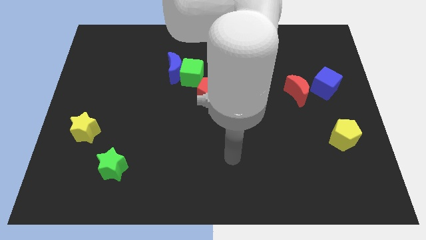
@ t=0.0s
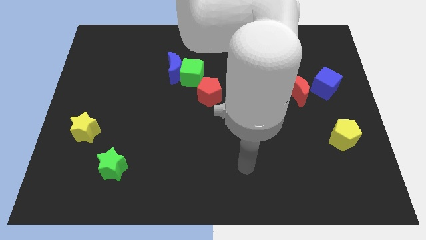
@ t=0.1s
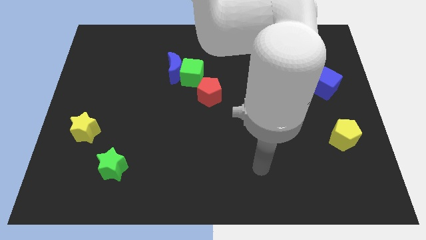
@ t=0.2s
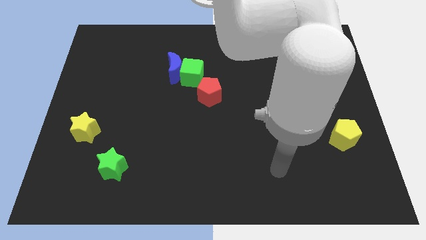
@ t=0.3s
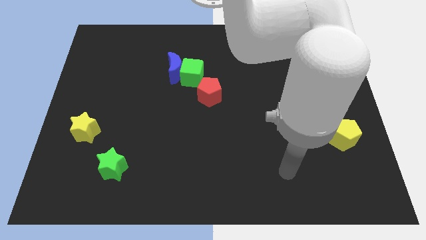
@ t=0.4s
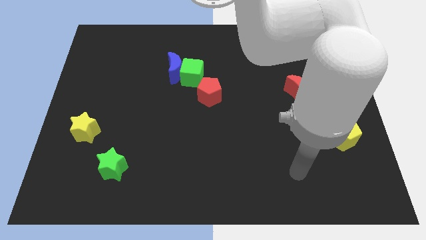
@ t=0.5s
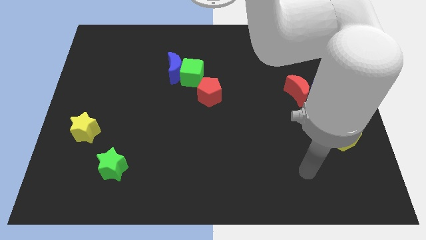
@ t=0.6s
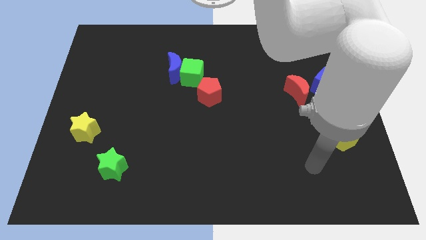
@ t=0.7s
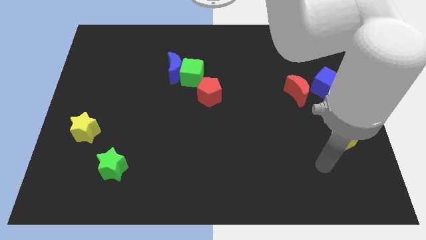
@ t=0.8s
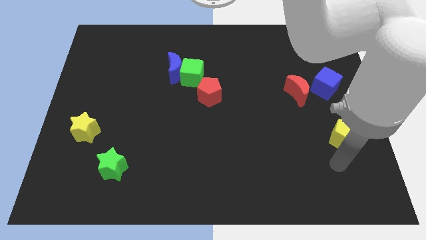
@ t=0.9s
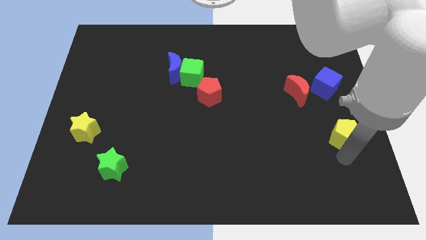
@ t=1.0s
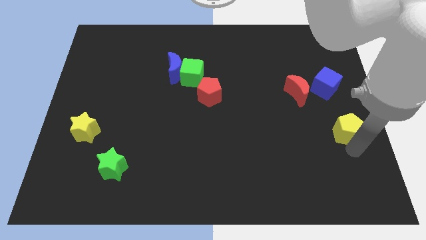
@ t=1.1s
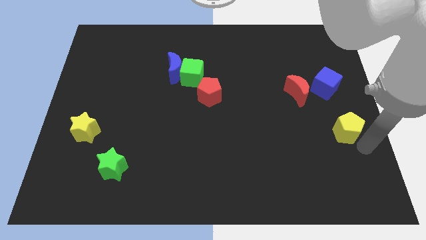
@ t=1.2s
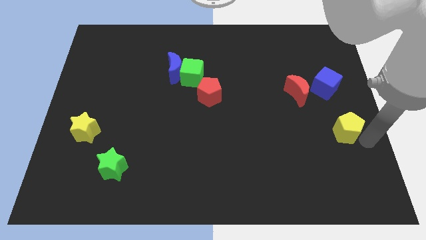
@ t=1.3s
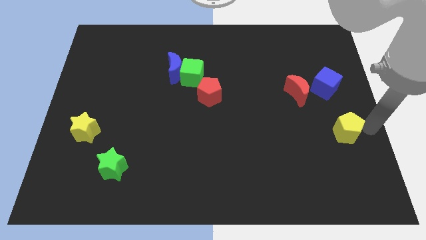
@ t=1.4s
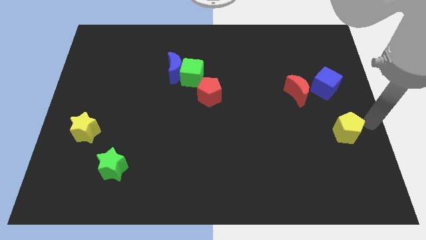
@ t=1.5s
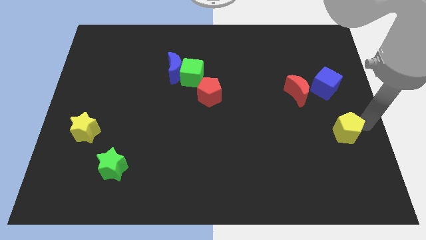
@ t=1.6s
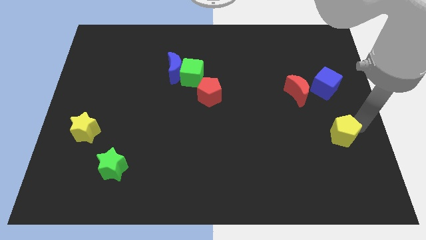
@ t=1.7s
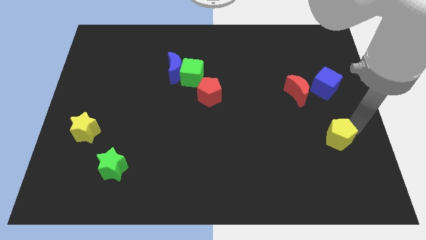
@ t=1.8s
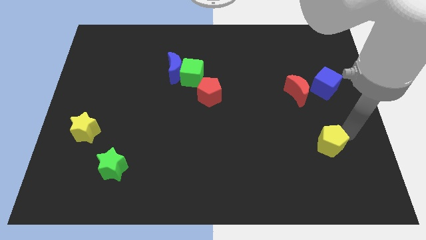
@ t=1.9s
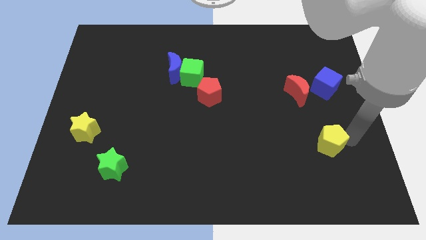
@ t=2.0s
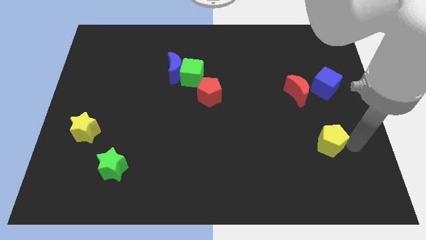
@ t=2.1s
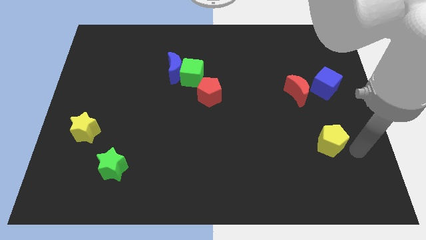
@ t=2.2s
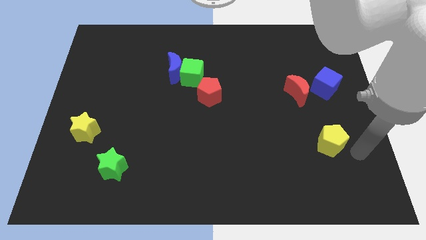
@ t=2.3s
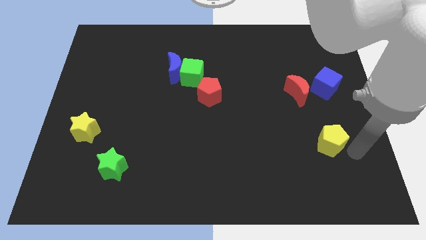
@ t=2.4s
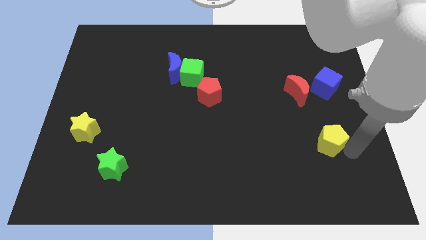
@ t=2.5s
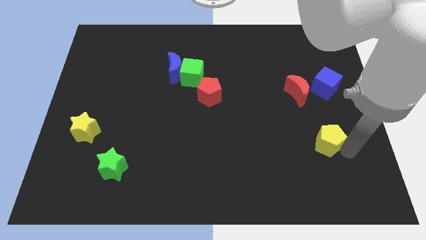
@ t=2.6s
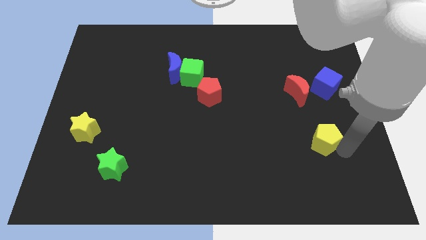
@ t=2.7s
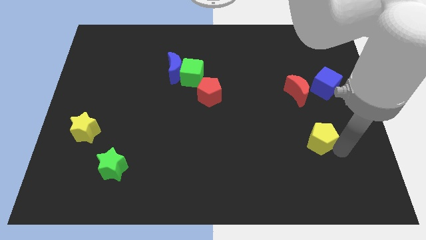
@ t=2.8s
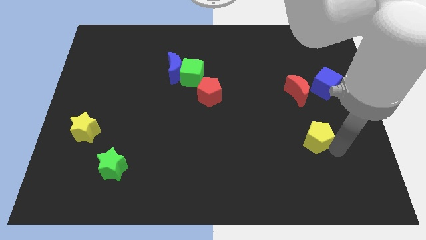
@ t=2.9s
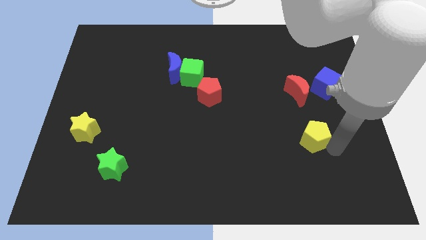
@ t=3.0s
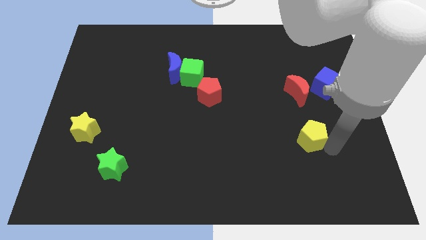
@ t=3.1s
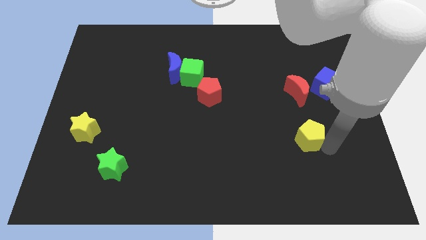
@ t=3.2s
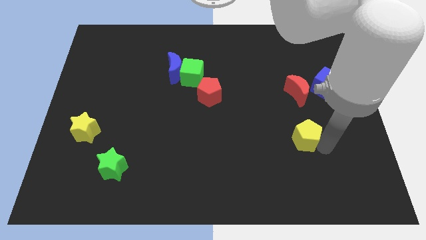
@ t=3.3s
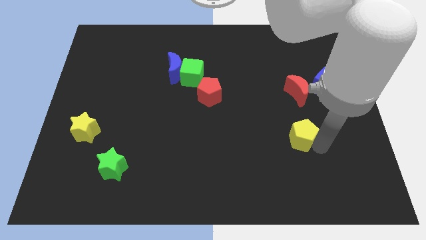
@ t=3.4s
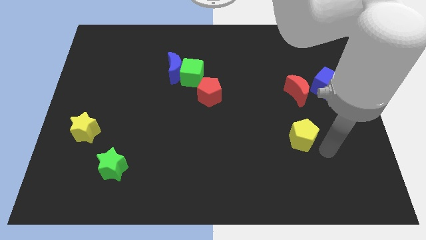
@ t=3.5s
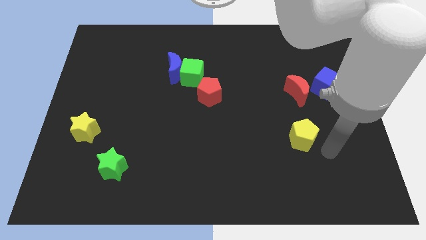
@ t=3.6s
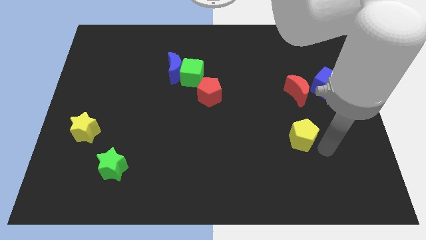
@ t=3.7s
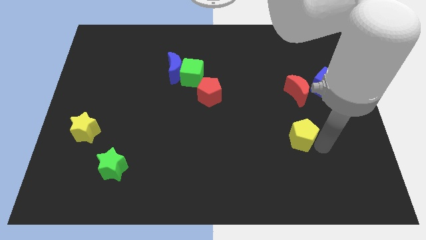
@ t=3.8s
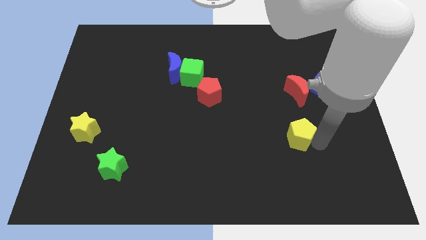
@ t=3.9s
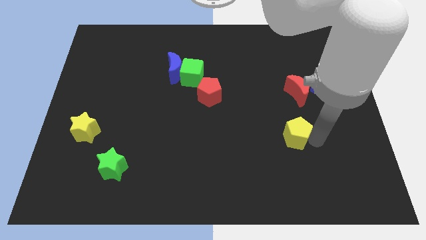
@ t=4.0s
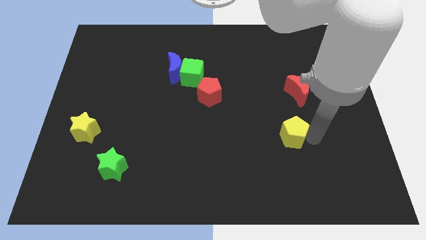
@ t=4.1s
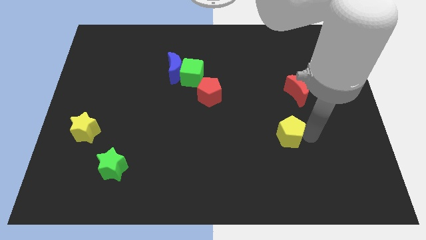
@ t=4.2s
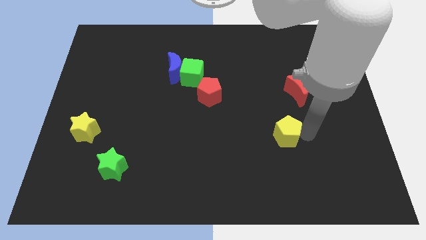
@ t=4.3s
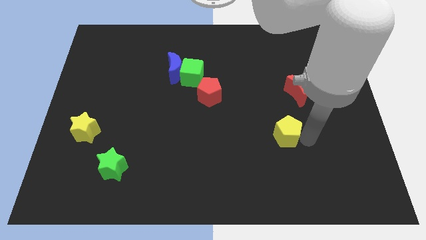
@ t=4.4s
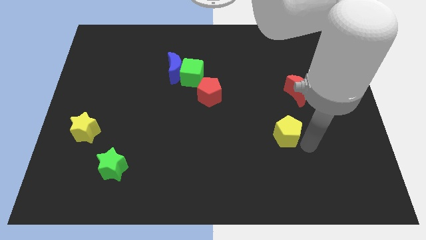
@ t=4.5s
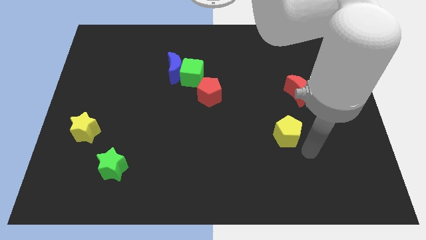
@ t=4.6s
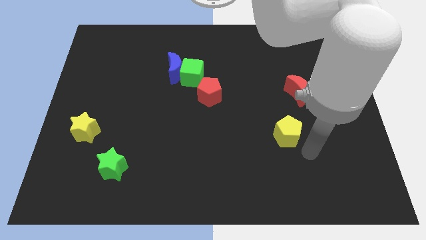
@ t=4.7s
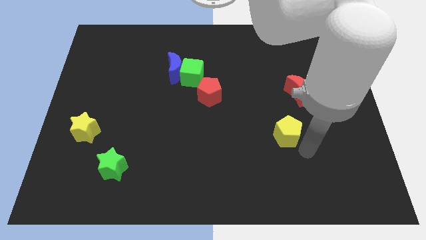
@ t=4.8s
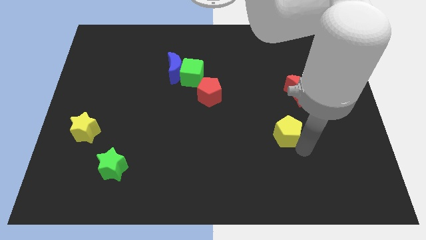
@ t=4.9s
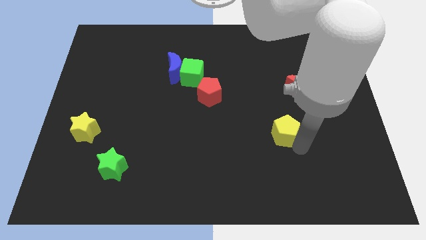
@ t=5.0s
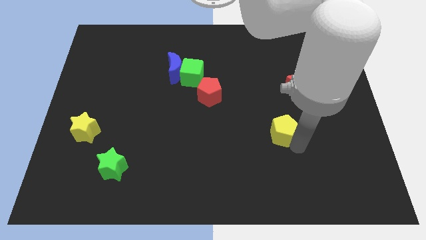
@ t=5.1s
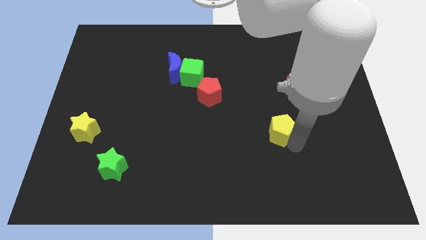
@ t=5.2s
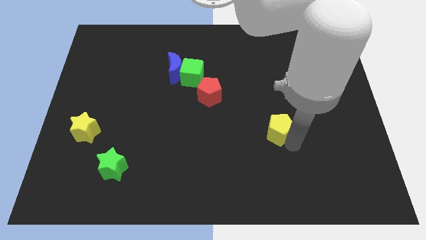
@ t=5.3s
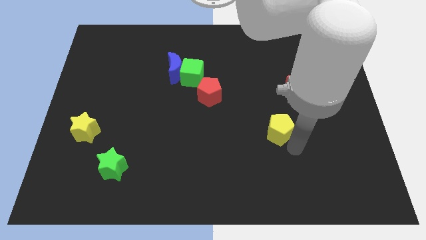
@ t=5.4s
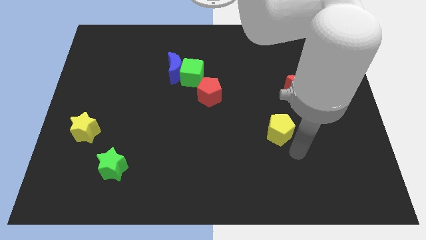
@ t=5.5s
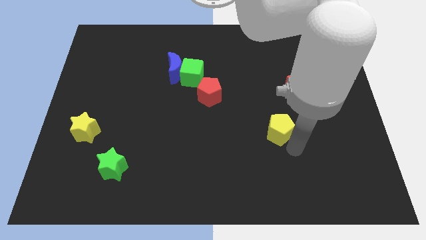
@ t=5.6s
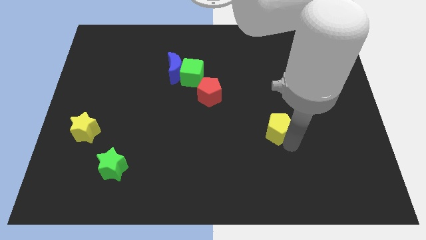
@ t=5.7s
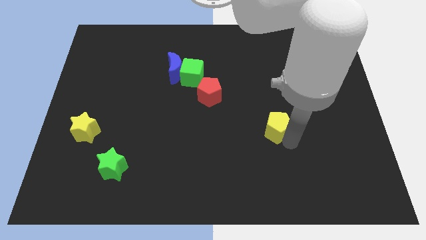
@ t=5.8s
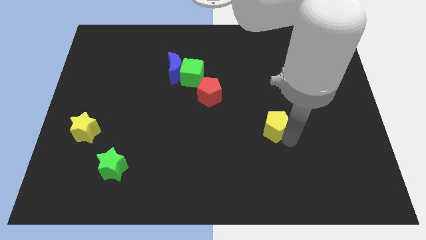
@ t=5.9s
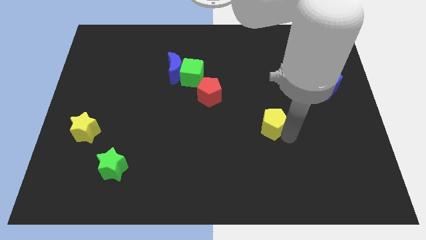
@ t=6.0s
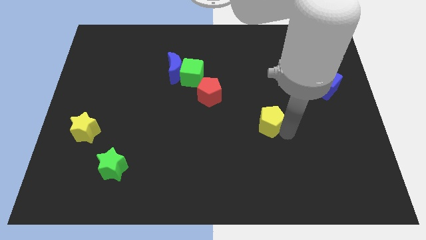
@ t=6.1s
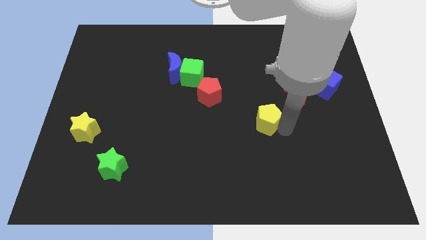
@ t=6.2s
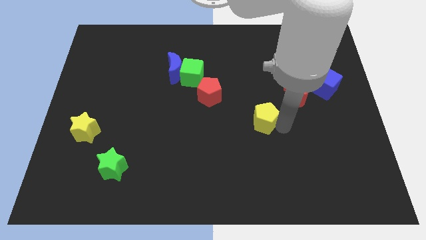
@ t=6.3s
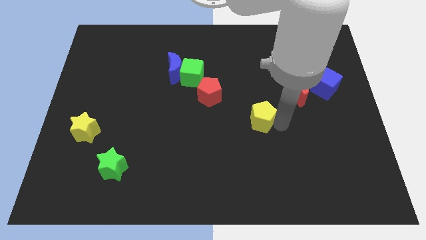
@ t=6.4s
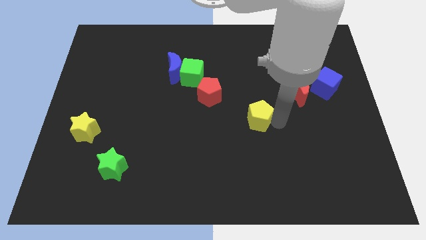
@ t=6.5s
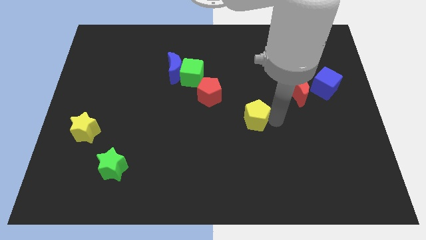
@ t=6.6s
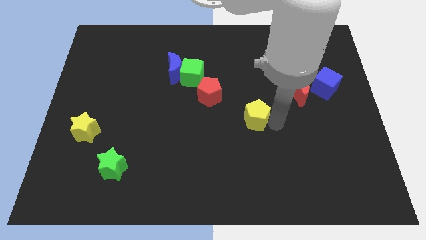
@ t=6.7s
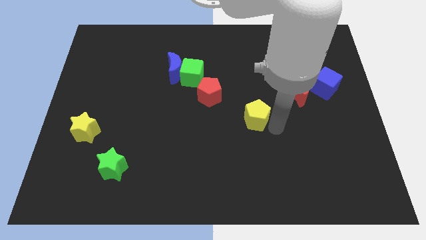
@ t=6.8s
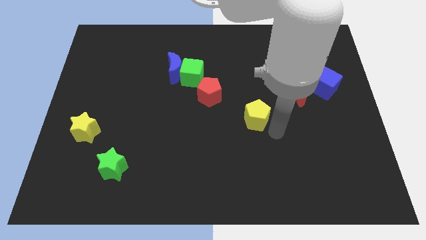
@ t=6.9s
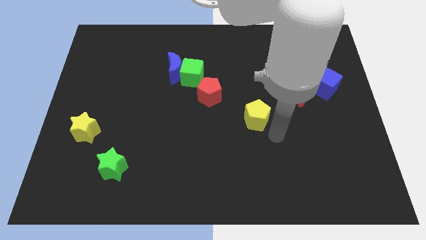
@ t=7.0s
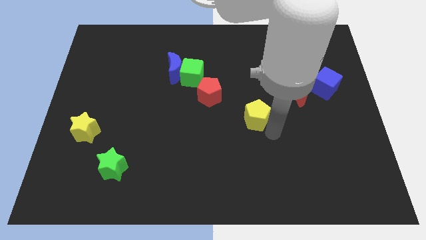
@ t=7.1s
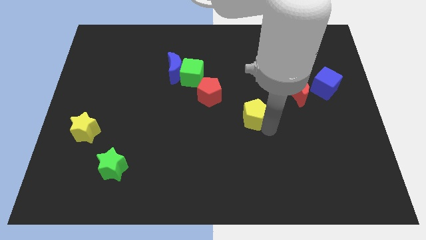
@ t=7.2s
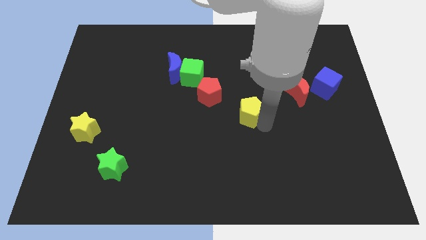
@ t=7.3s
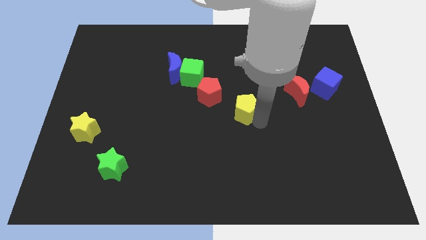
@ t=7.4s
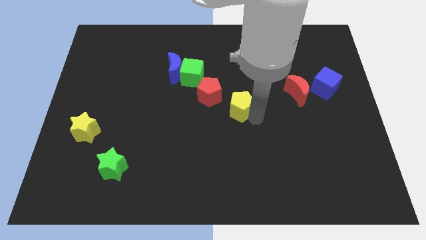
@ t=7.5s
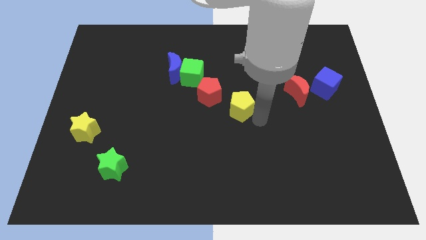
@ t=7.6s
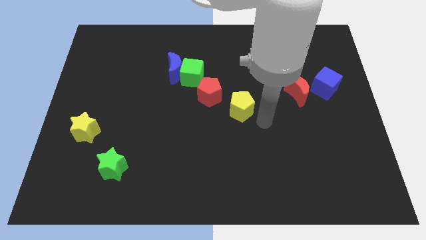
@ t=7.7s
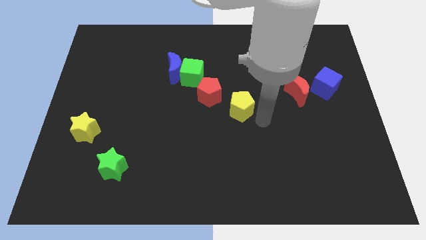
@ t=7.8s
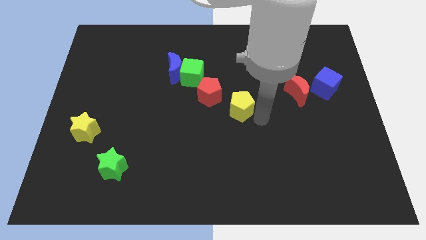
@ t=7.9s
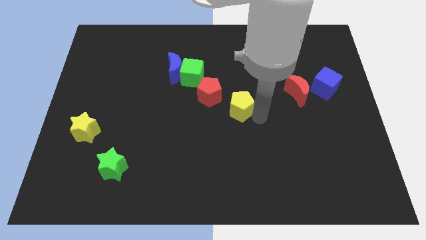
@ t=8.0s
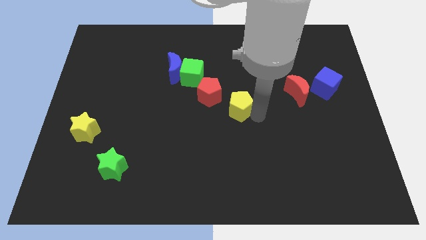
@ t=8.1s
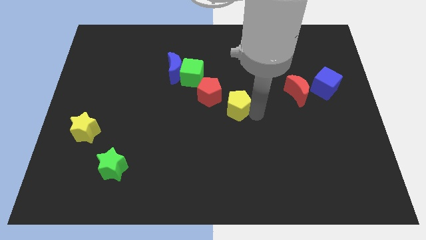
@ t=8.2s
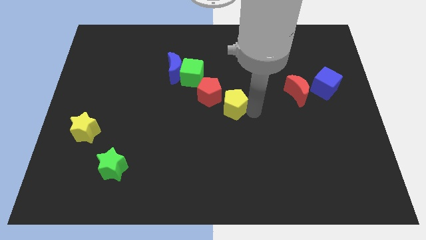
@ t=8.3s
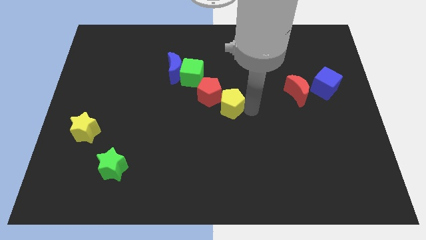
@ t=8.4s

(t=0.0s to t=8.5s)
push the yellow pentagon towards the red pentagon
